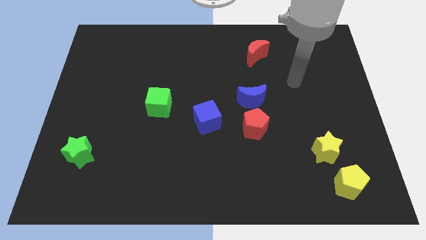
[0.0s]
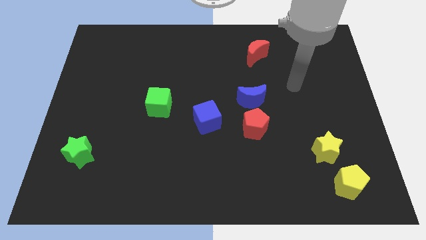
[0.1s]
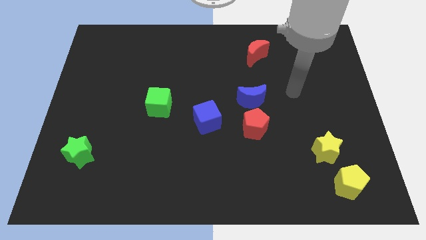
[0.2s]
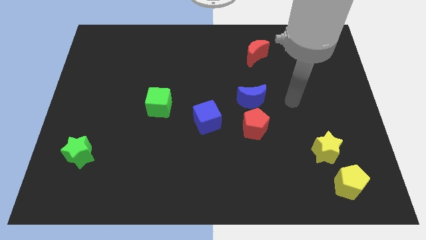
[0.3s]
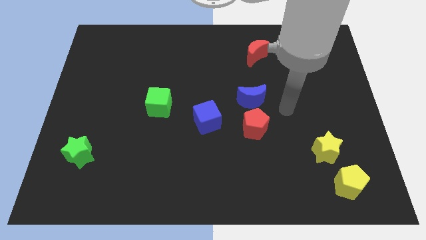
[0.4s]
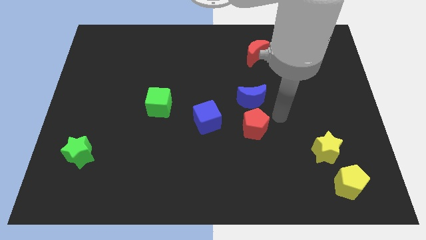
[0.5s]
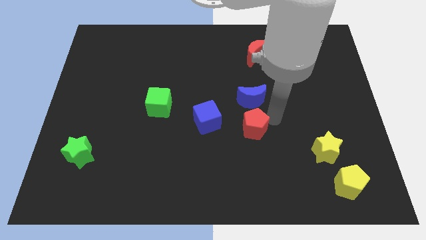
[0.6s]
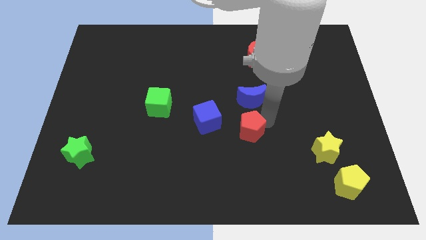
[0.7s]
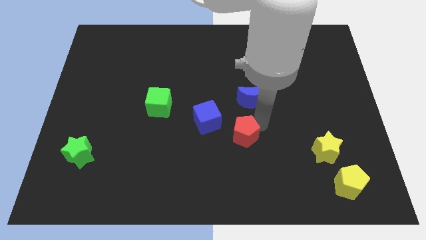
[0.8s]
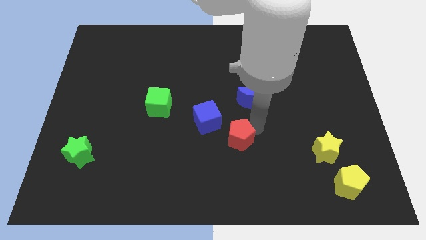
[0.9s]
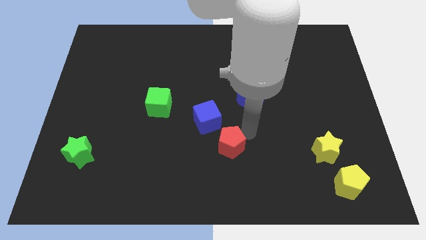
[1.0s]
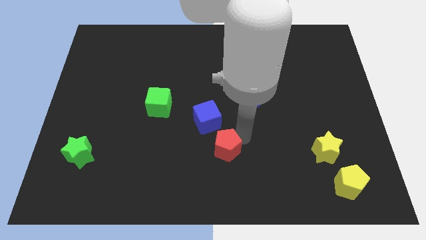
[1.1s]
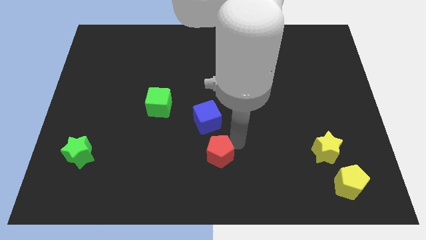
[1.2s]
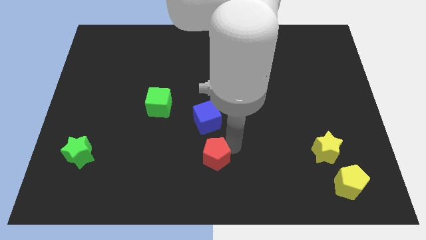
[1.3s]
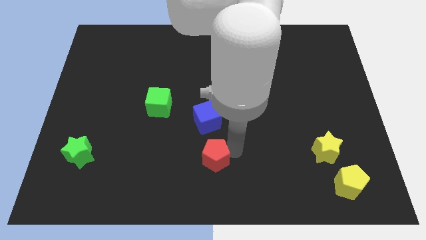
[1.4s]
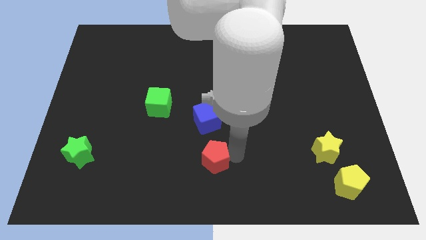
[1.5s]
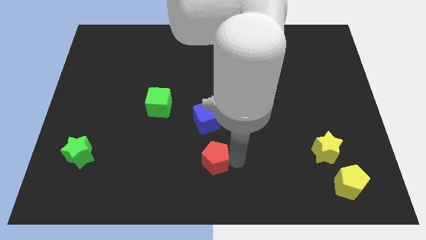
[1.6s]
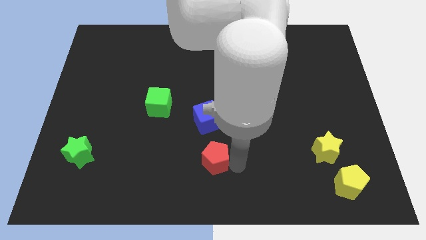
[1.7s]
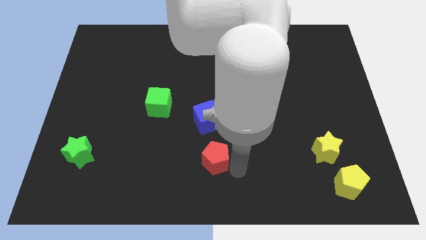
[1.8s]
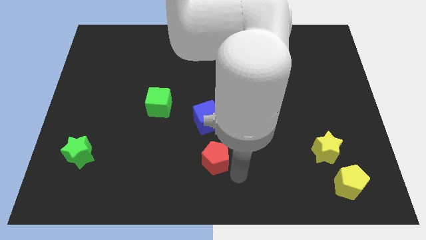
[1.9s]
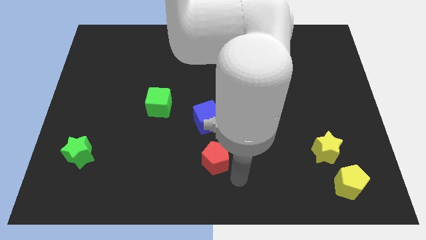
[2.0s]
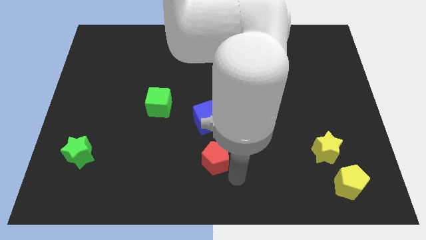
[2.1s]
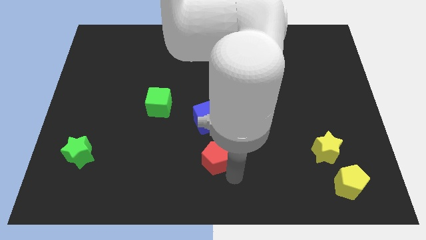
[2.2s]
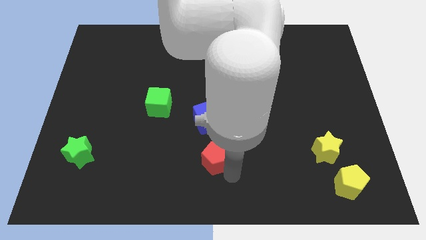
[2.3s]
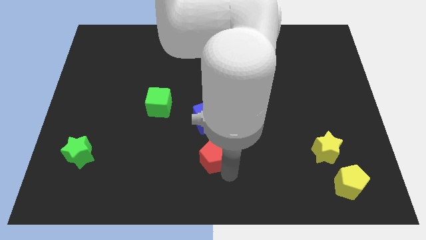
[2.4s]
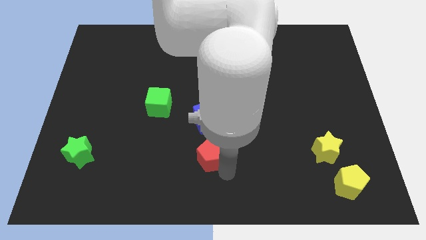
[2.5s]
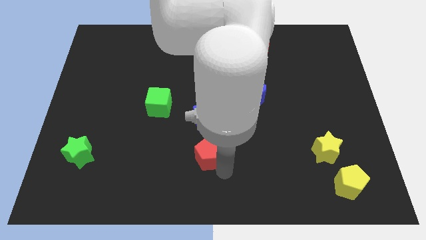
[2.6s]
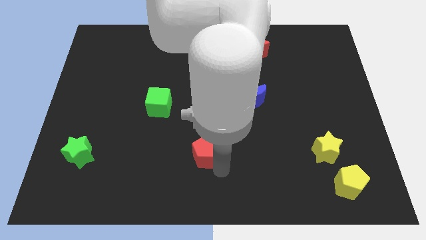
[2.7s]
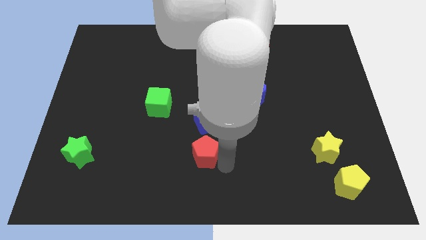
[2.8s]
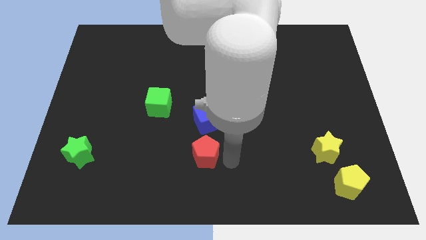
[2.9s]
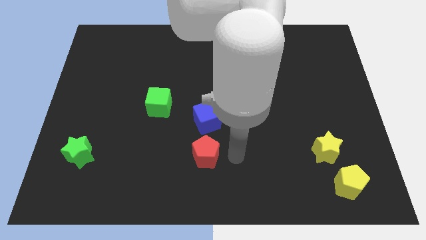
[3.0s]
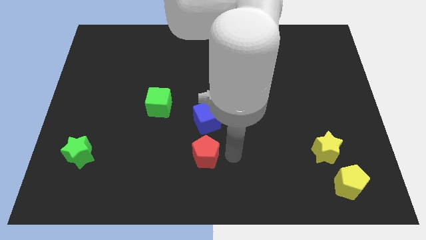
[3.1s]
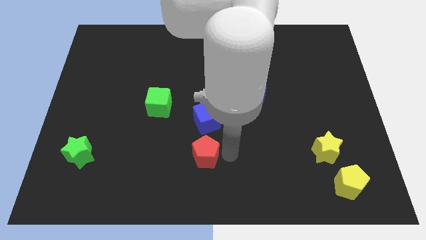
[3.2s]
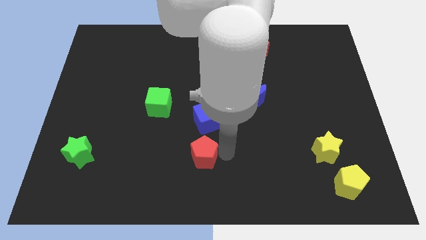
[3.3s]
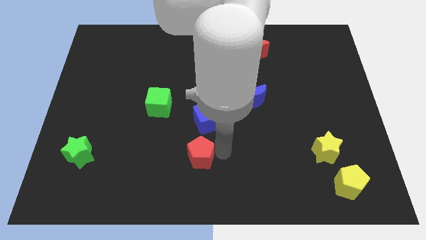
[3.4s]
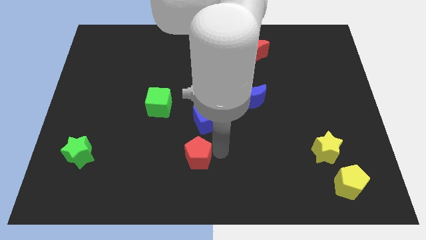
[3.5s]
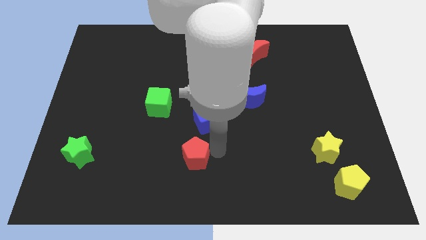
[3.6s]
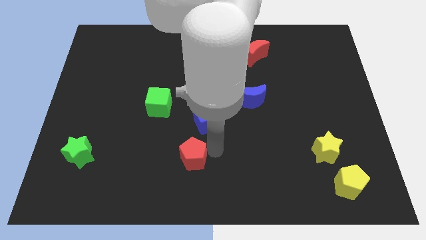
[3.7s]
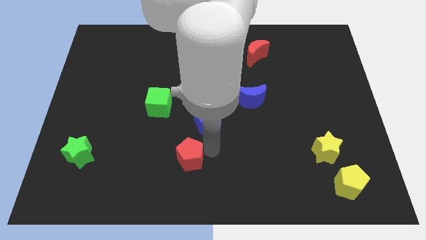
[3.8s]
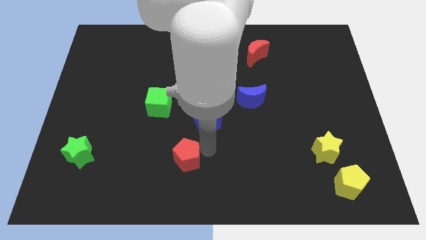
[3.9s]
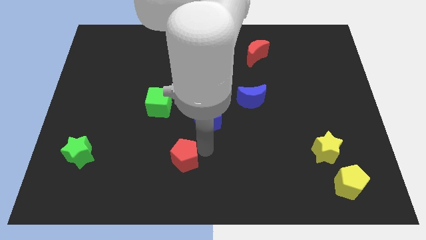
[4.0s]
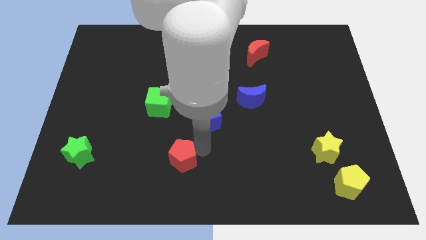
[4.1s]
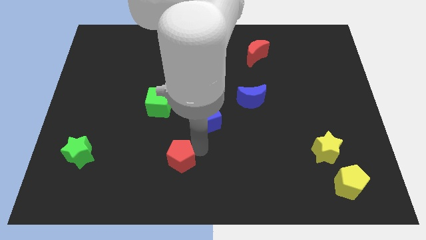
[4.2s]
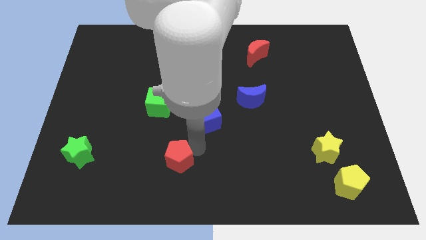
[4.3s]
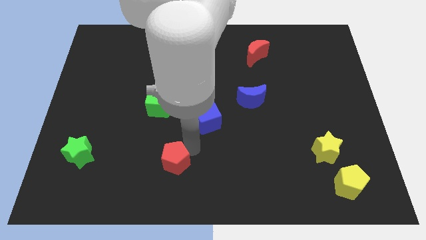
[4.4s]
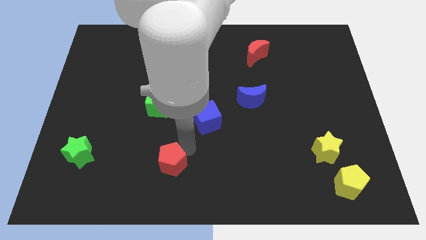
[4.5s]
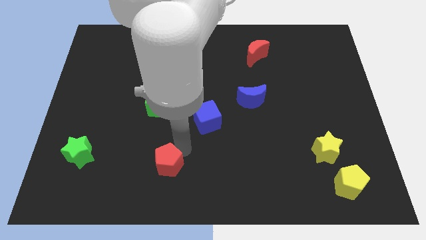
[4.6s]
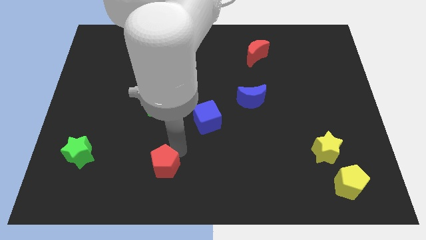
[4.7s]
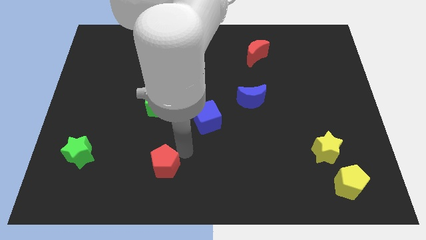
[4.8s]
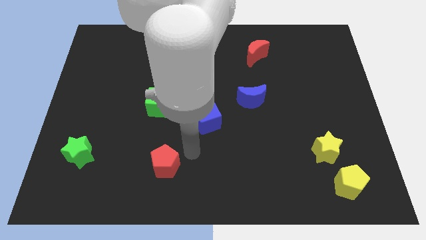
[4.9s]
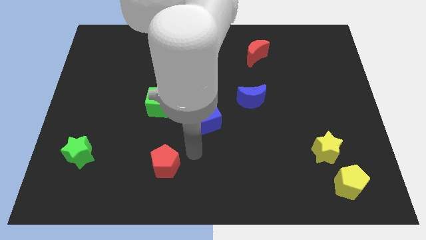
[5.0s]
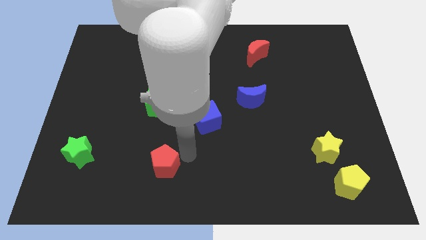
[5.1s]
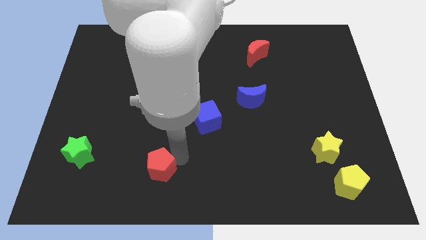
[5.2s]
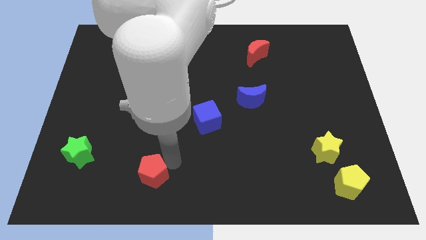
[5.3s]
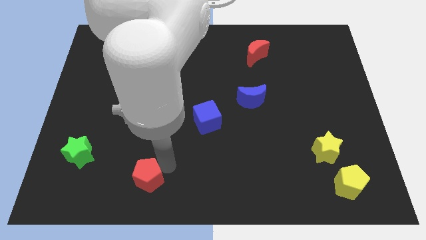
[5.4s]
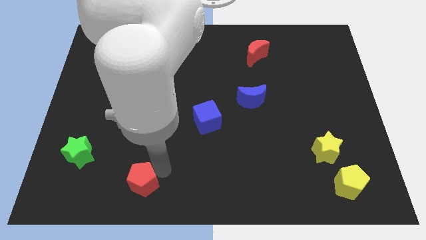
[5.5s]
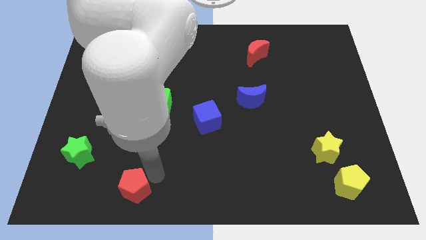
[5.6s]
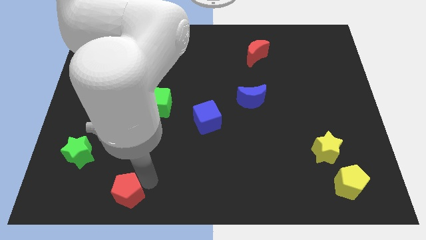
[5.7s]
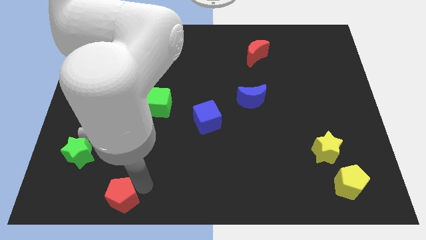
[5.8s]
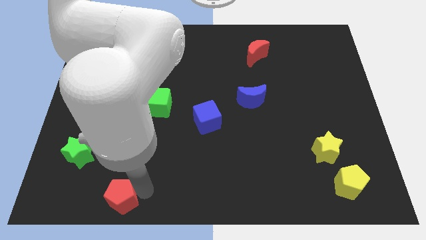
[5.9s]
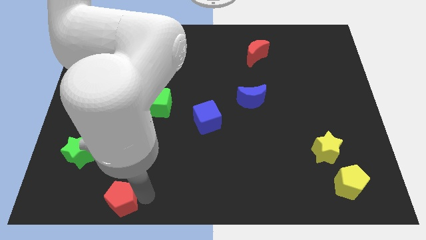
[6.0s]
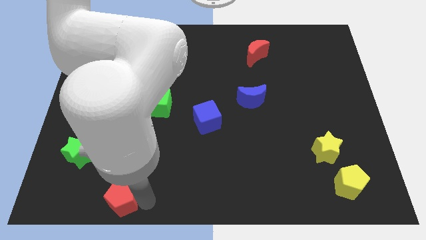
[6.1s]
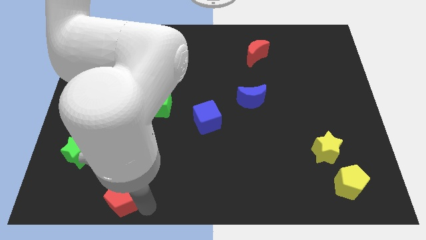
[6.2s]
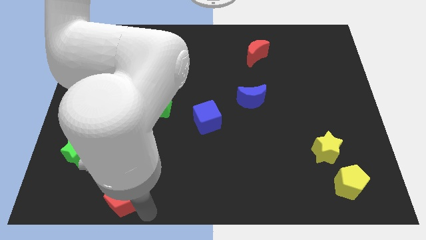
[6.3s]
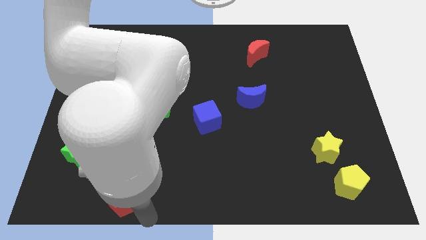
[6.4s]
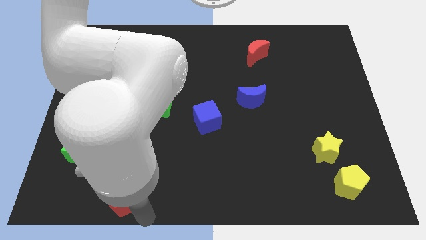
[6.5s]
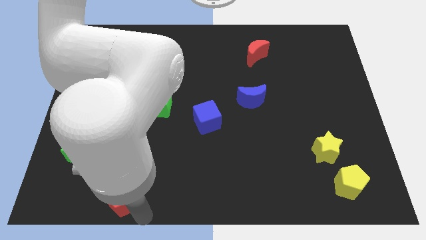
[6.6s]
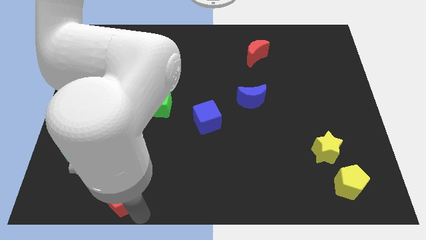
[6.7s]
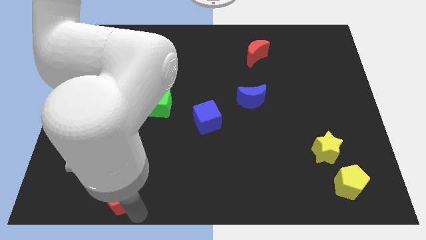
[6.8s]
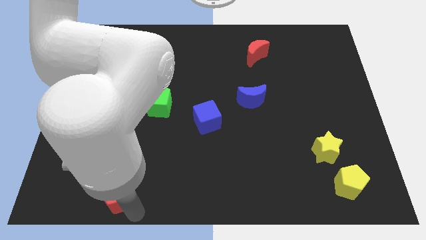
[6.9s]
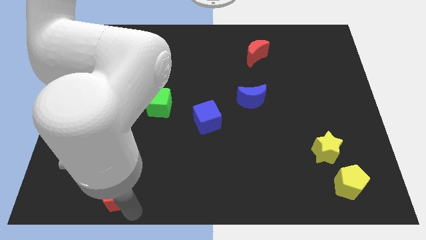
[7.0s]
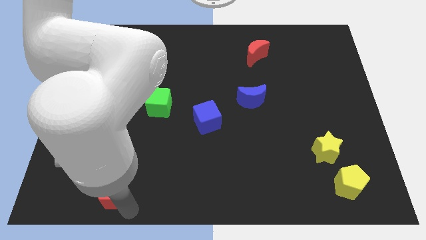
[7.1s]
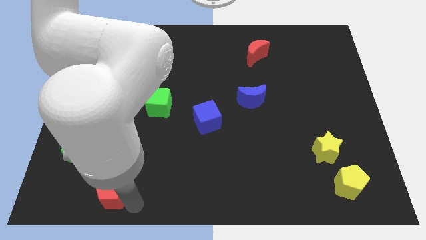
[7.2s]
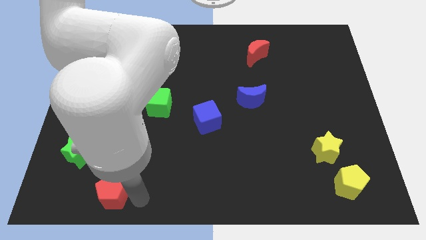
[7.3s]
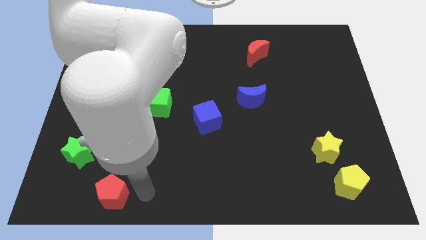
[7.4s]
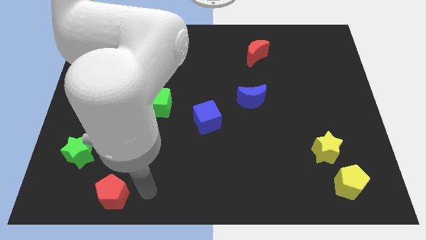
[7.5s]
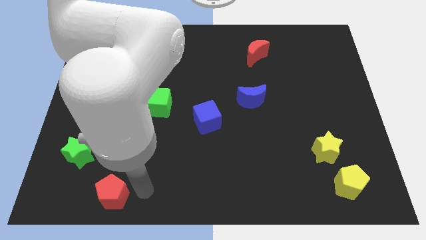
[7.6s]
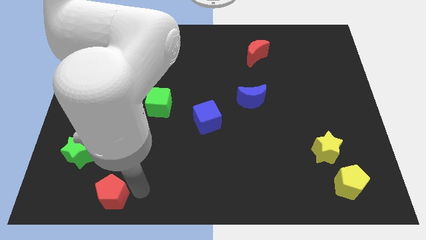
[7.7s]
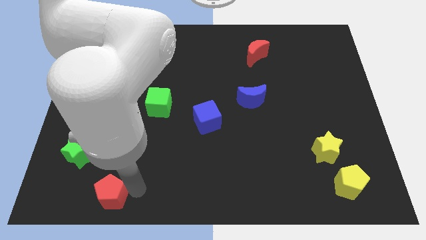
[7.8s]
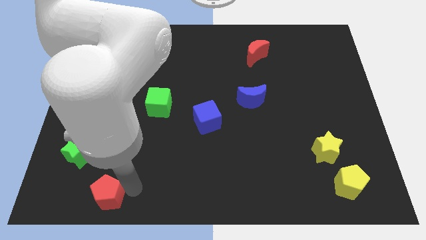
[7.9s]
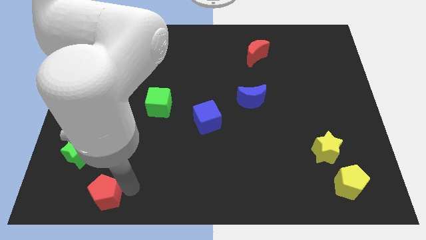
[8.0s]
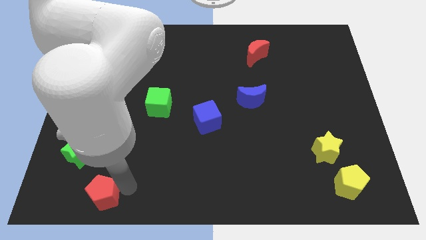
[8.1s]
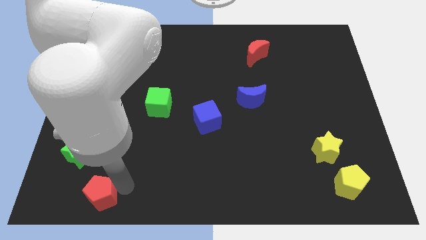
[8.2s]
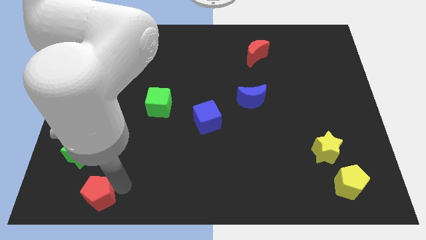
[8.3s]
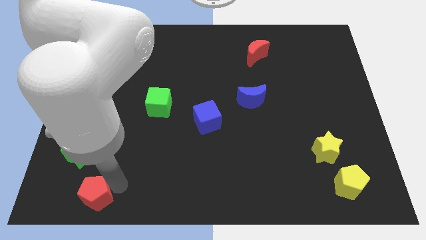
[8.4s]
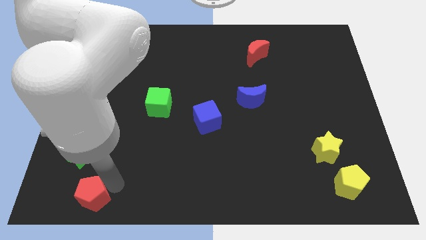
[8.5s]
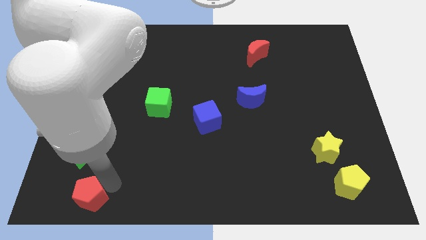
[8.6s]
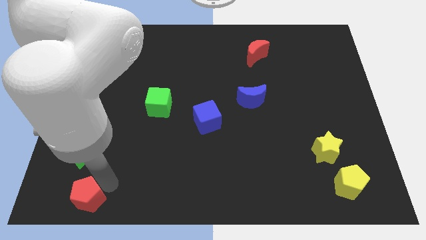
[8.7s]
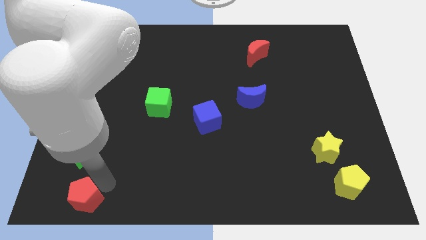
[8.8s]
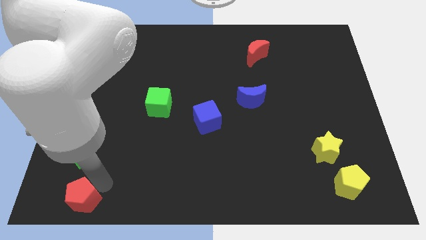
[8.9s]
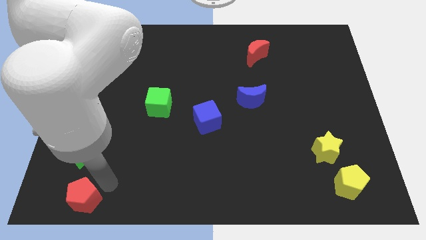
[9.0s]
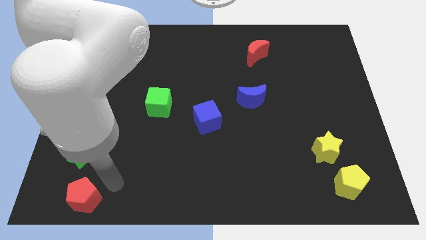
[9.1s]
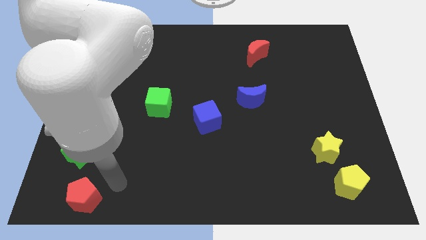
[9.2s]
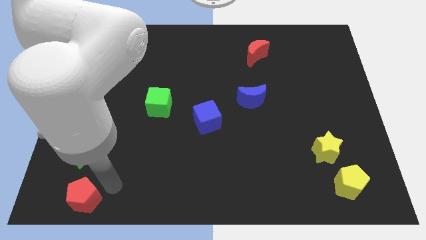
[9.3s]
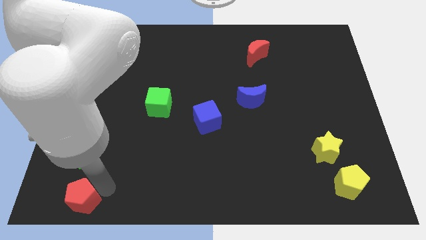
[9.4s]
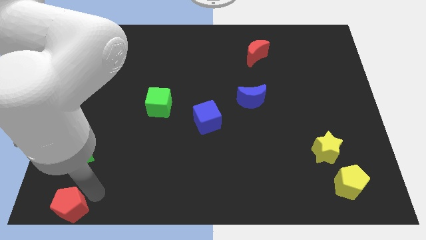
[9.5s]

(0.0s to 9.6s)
push the red pentagon to the bottom left corner
